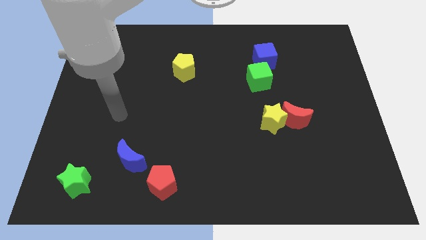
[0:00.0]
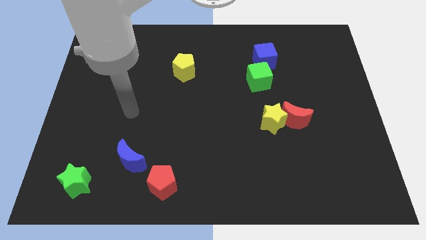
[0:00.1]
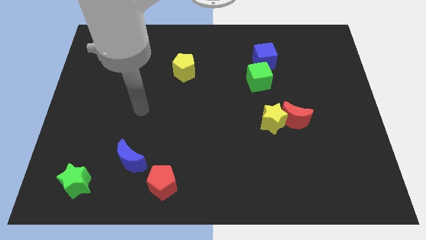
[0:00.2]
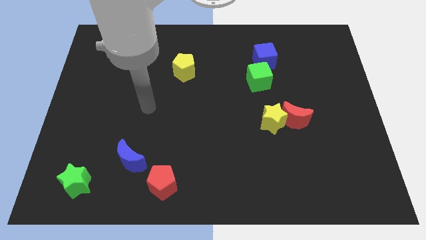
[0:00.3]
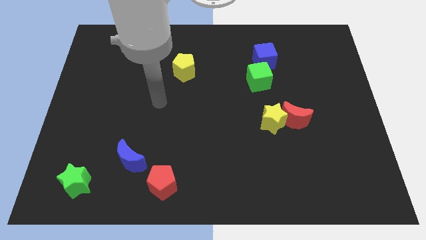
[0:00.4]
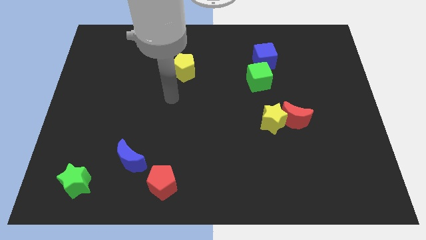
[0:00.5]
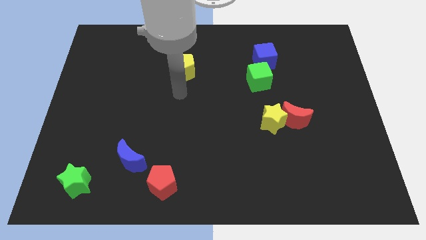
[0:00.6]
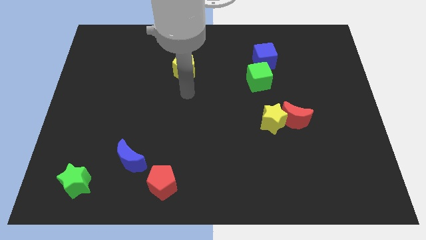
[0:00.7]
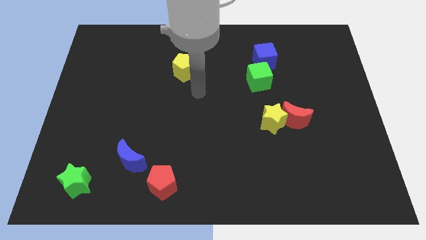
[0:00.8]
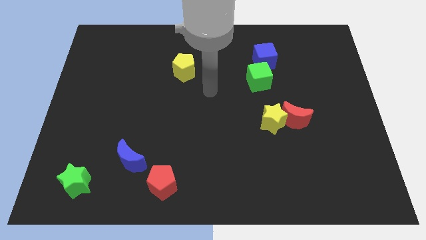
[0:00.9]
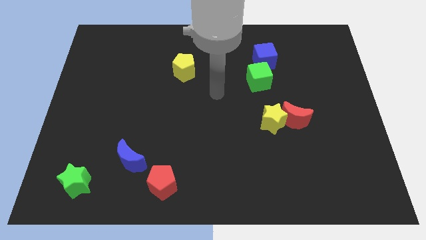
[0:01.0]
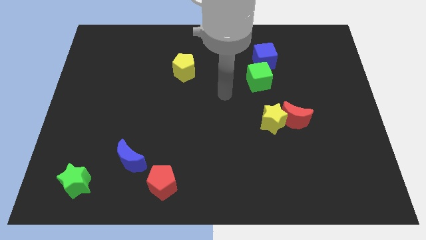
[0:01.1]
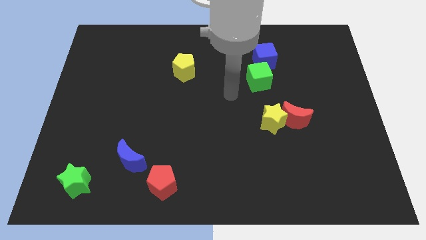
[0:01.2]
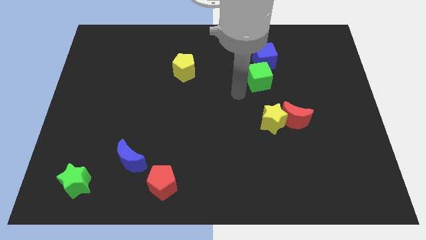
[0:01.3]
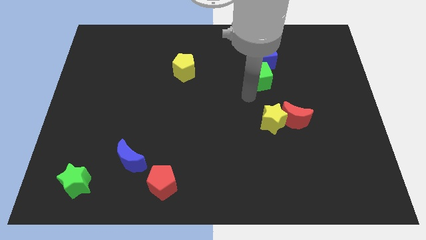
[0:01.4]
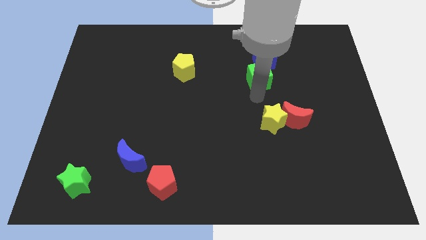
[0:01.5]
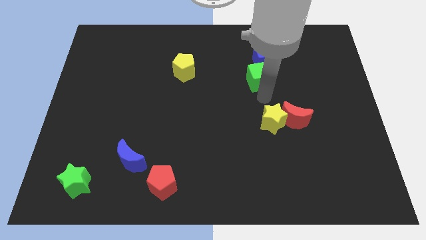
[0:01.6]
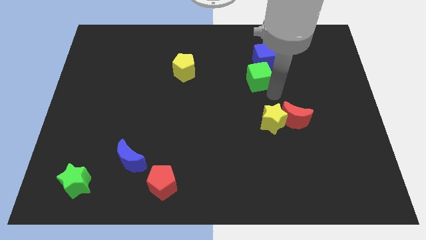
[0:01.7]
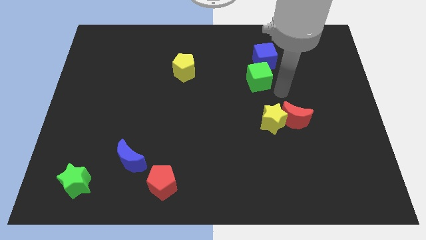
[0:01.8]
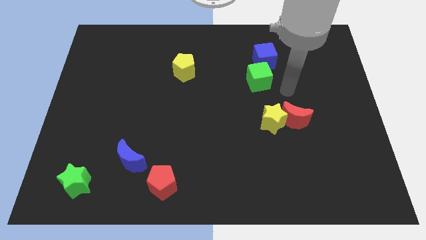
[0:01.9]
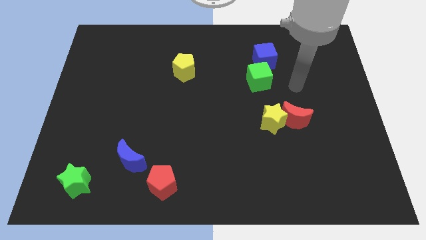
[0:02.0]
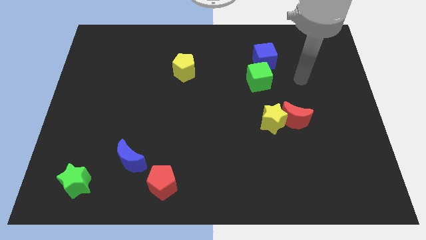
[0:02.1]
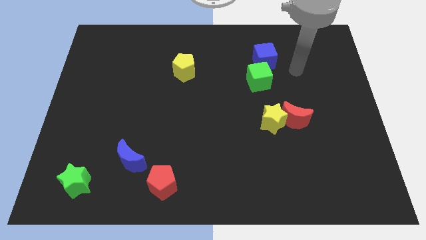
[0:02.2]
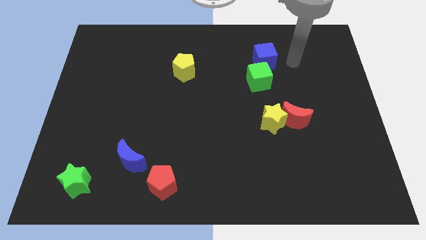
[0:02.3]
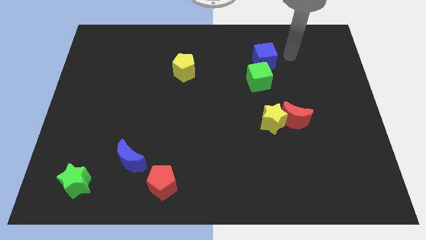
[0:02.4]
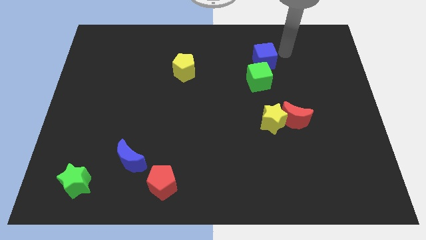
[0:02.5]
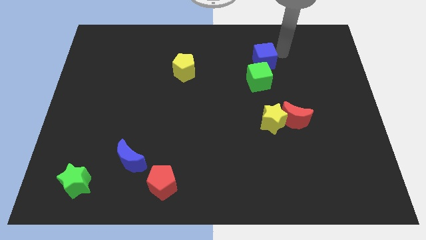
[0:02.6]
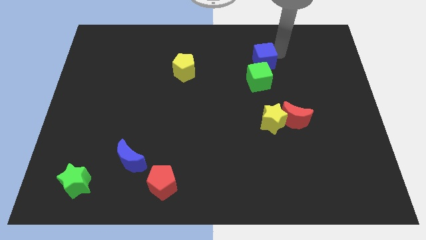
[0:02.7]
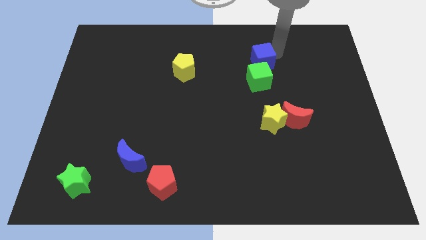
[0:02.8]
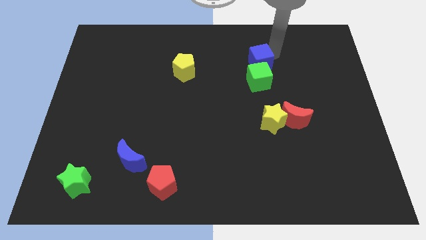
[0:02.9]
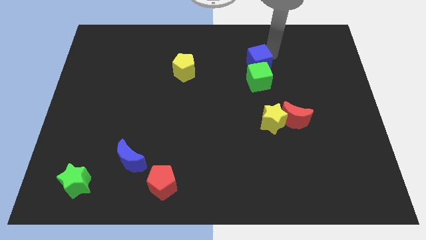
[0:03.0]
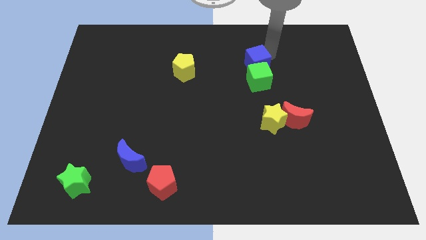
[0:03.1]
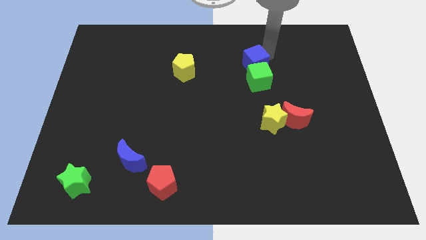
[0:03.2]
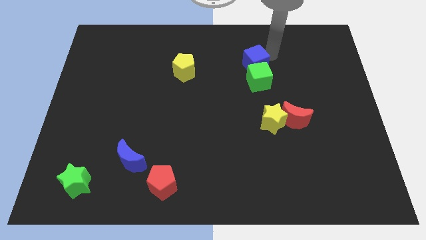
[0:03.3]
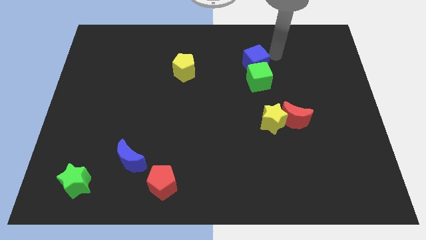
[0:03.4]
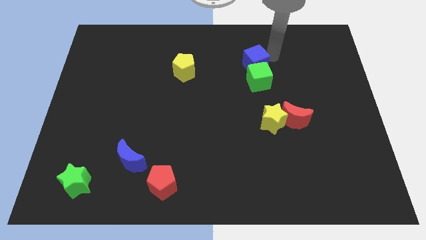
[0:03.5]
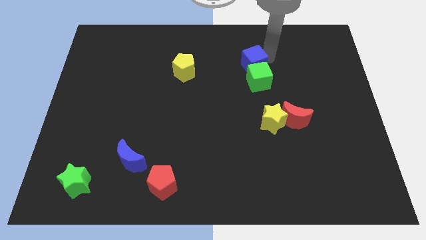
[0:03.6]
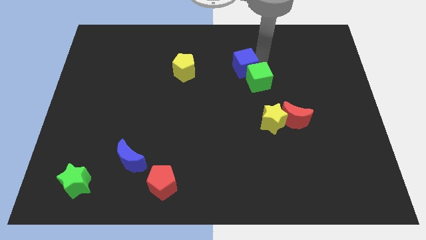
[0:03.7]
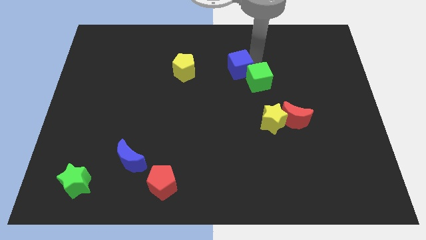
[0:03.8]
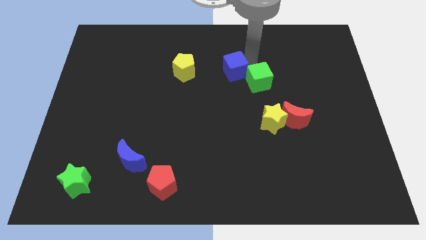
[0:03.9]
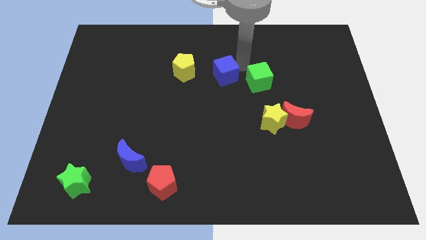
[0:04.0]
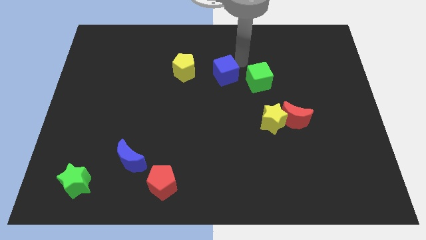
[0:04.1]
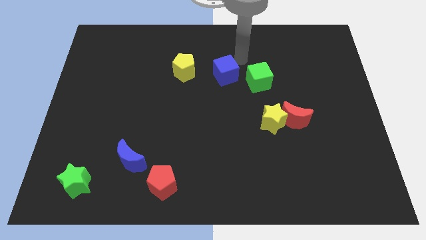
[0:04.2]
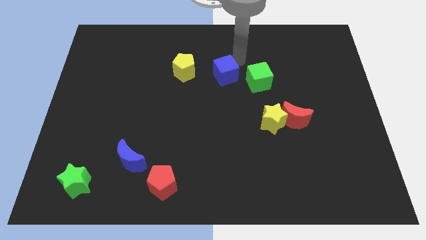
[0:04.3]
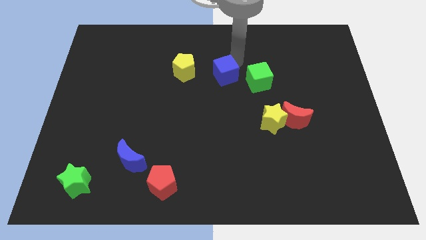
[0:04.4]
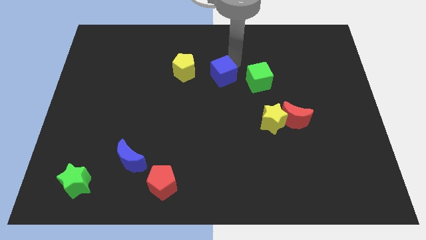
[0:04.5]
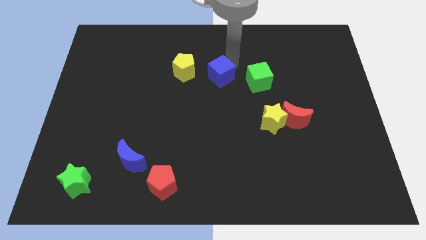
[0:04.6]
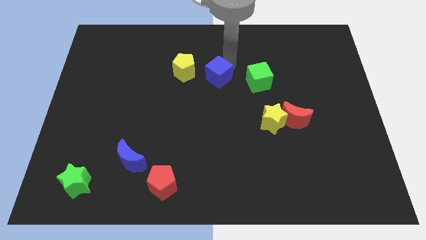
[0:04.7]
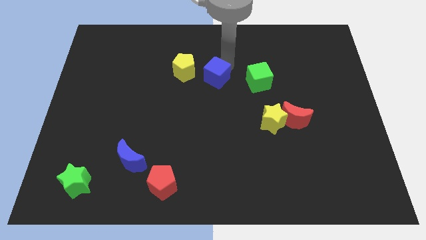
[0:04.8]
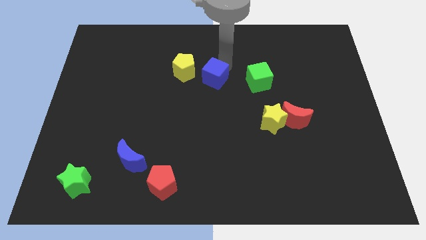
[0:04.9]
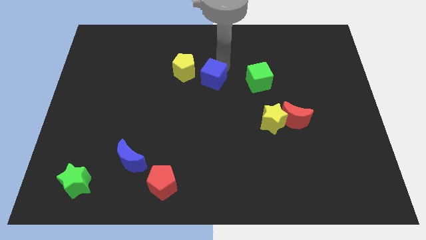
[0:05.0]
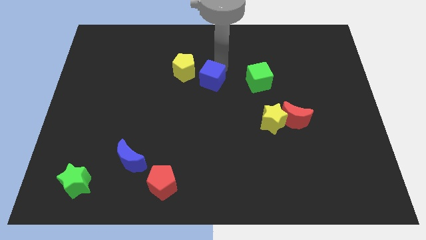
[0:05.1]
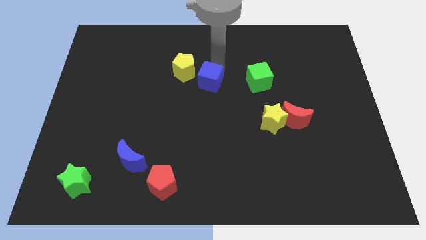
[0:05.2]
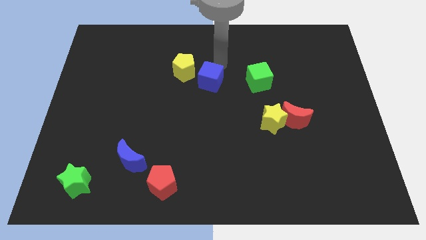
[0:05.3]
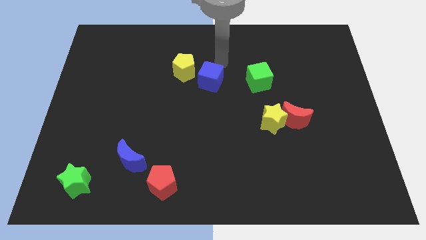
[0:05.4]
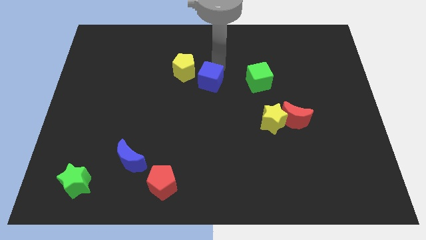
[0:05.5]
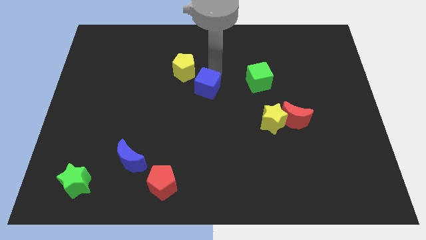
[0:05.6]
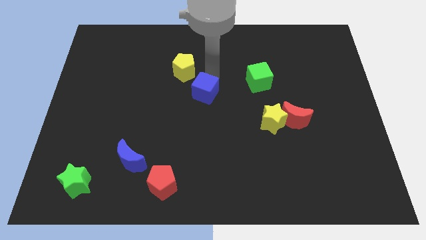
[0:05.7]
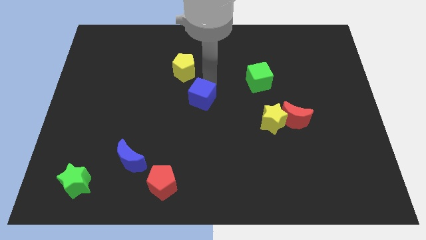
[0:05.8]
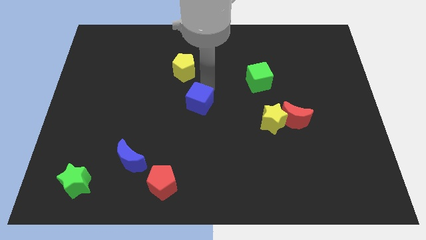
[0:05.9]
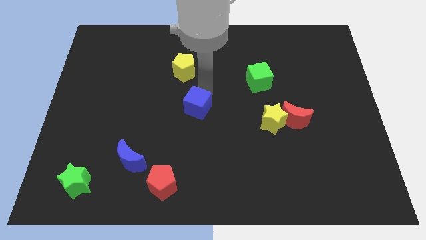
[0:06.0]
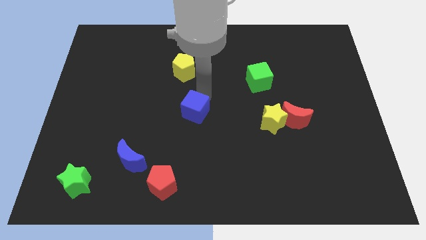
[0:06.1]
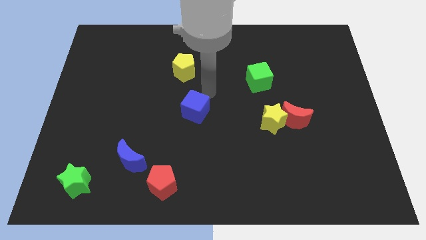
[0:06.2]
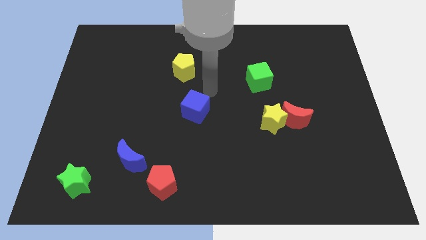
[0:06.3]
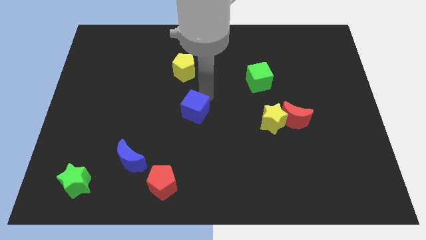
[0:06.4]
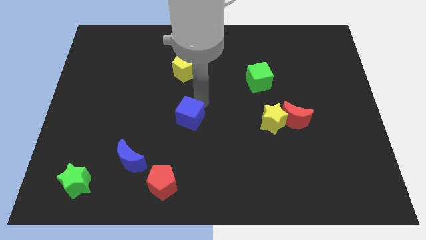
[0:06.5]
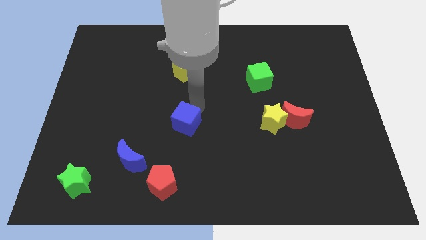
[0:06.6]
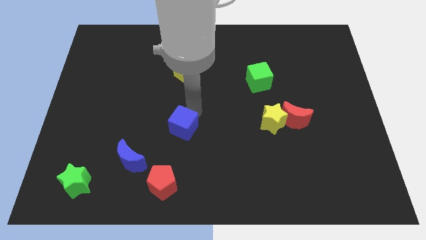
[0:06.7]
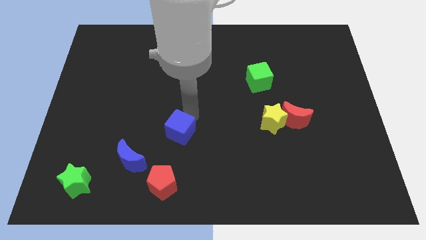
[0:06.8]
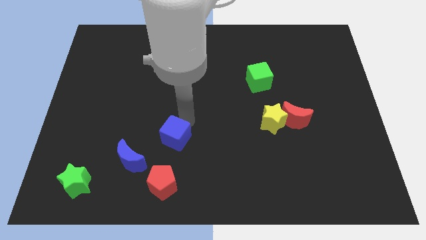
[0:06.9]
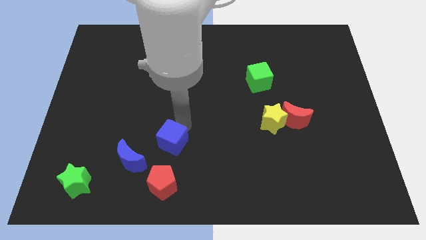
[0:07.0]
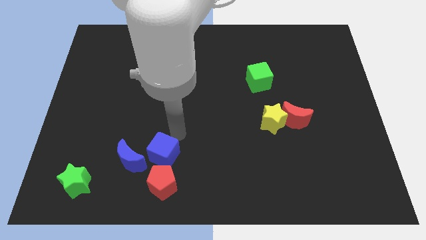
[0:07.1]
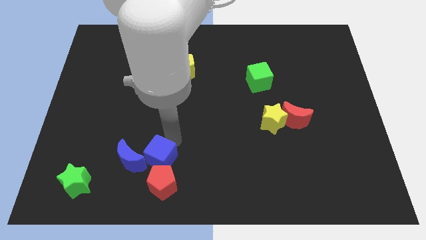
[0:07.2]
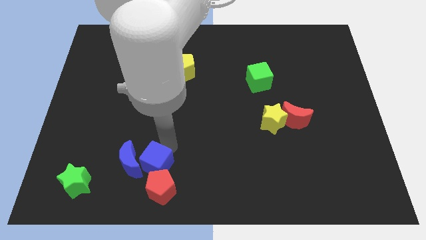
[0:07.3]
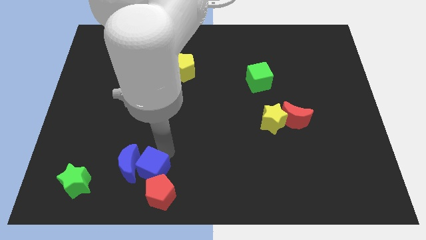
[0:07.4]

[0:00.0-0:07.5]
put the blue cube just right of the green star
